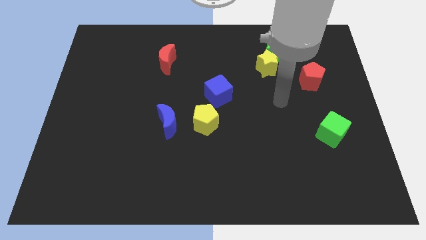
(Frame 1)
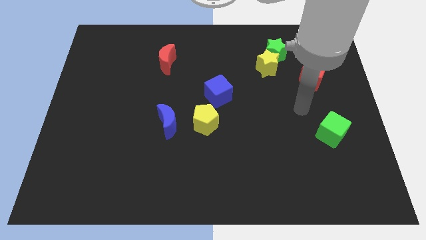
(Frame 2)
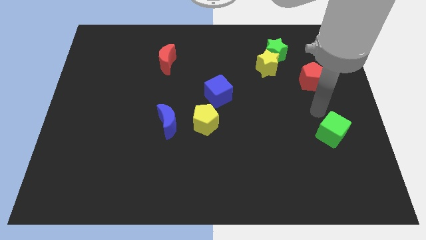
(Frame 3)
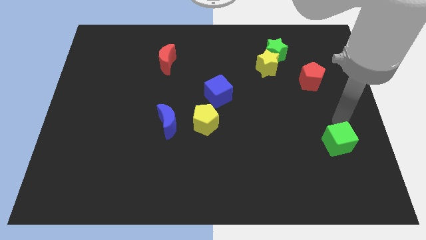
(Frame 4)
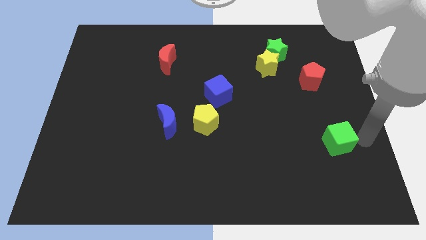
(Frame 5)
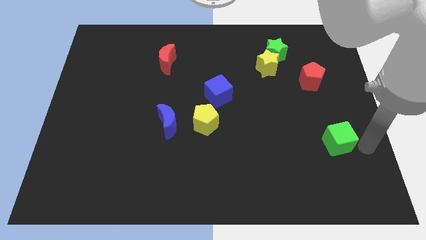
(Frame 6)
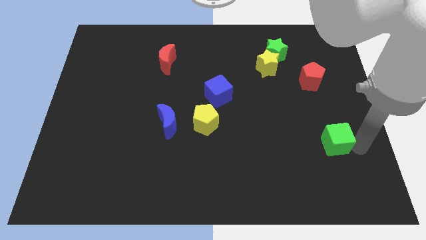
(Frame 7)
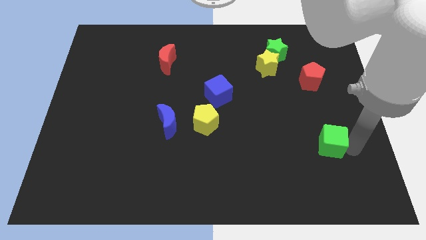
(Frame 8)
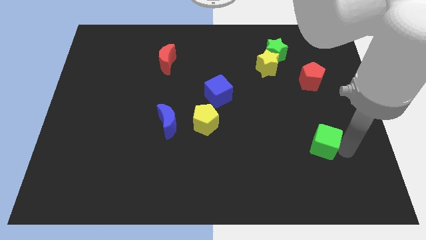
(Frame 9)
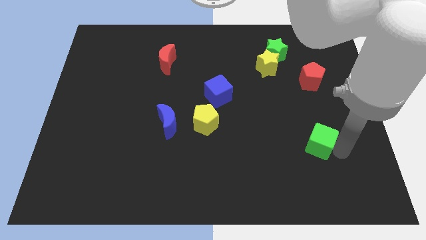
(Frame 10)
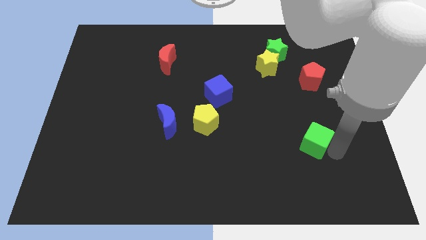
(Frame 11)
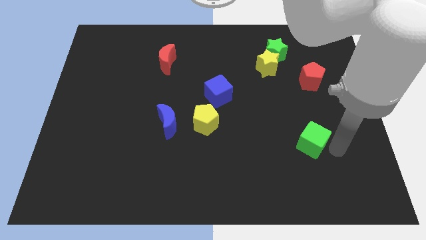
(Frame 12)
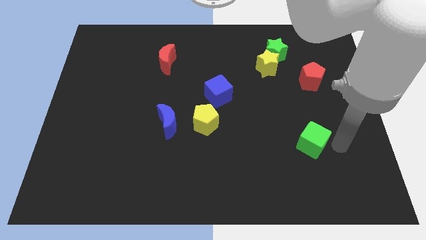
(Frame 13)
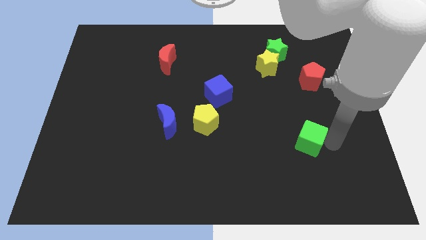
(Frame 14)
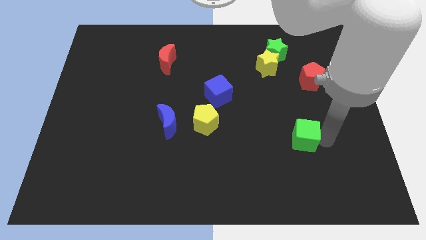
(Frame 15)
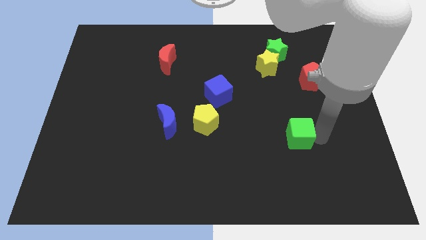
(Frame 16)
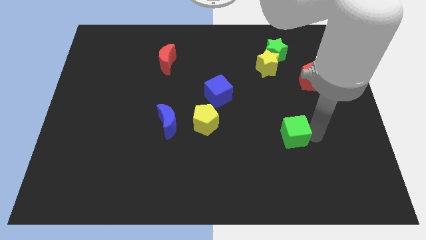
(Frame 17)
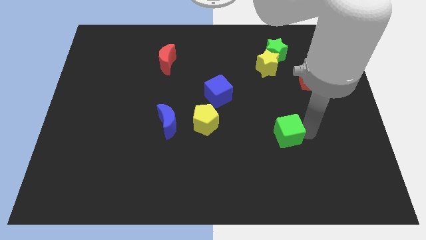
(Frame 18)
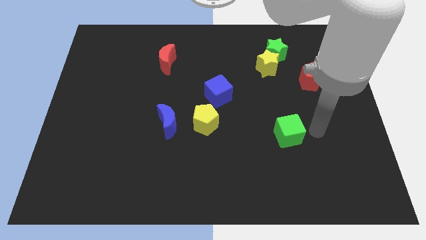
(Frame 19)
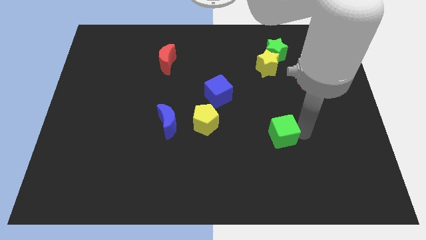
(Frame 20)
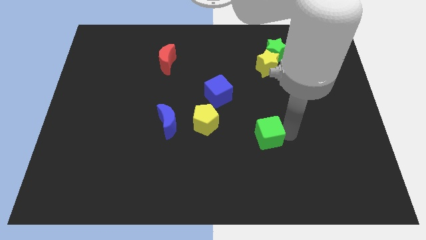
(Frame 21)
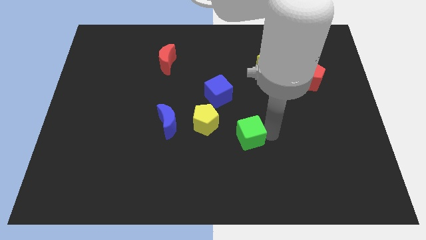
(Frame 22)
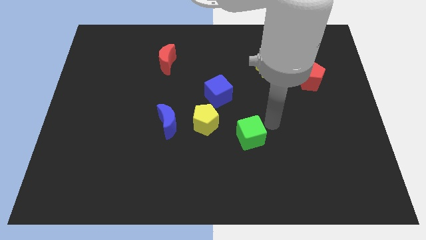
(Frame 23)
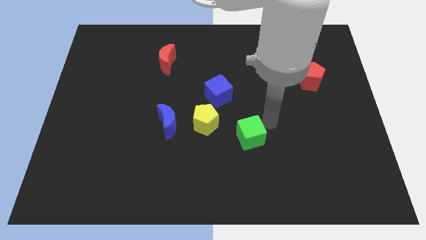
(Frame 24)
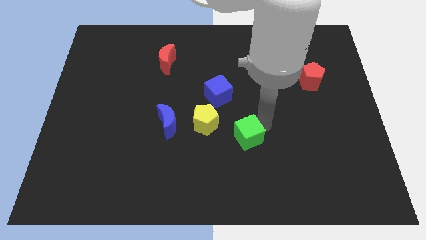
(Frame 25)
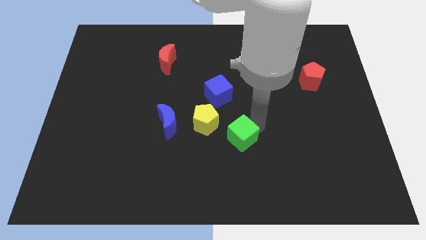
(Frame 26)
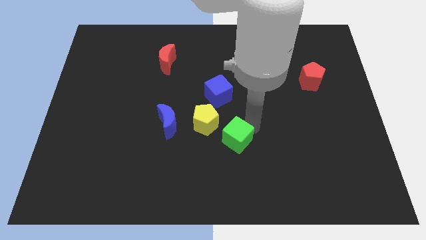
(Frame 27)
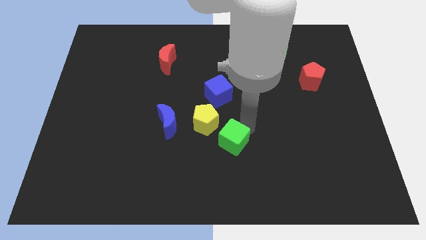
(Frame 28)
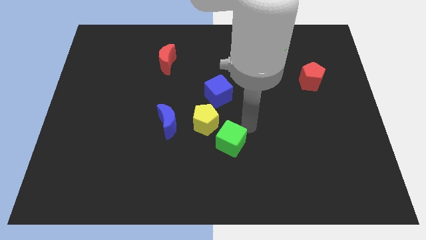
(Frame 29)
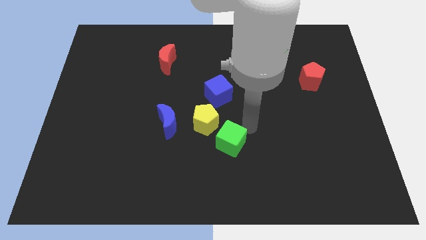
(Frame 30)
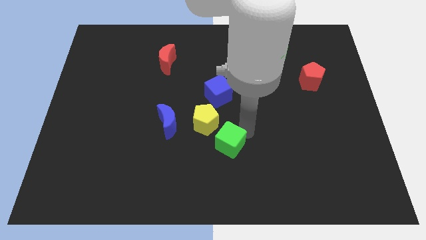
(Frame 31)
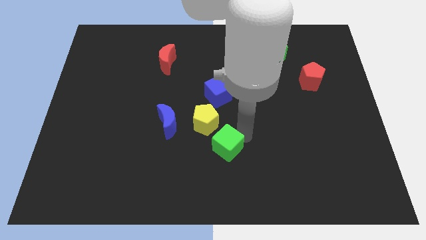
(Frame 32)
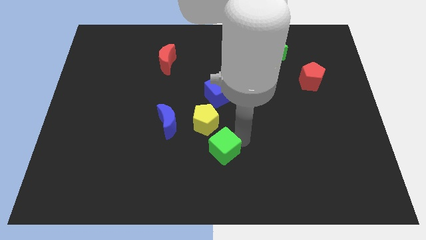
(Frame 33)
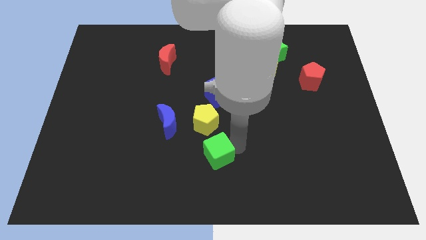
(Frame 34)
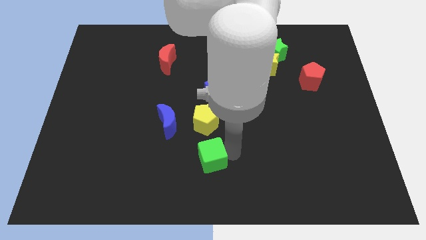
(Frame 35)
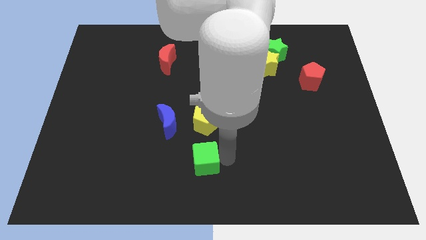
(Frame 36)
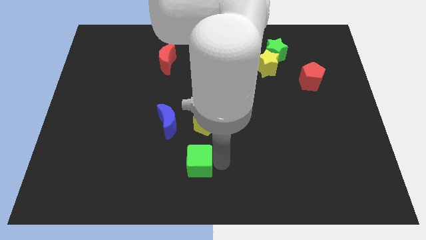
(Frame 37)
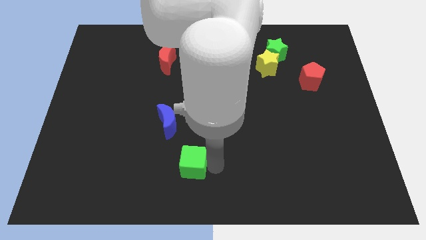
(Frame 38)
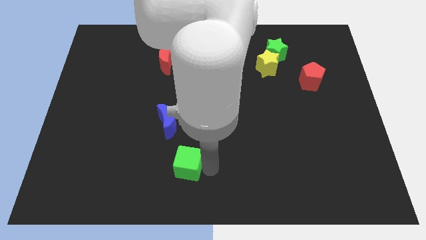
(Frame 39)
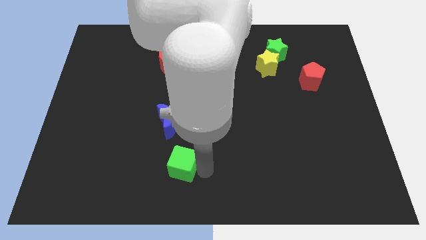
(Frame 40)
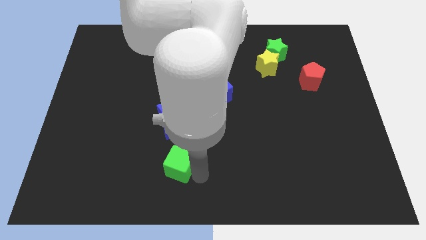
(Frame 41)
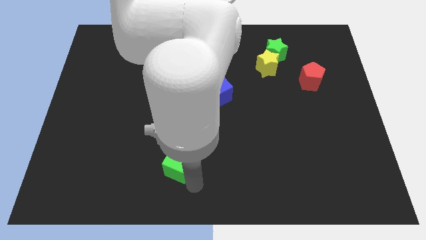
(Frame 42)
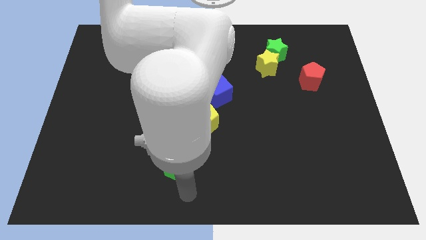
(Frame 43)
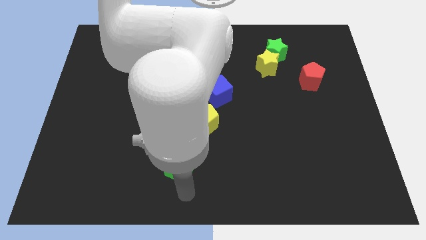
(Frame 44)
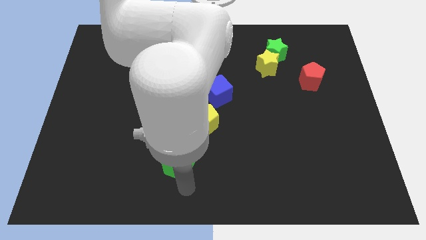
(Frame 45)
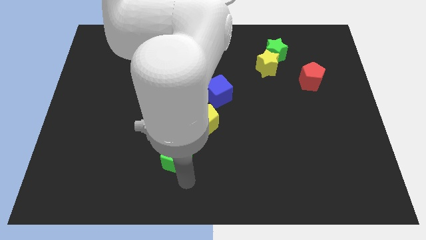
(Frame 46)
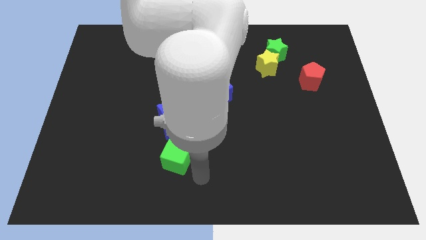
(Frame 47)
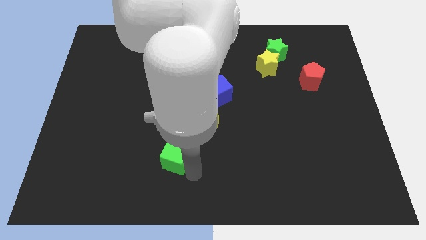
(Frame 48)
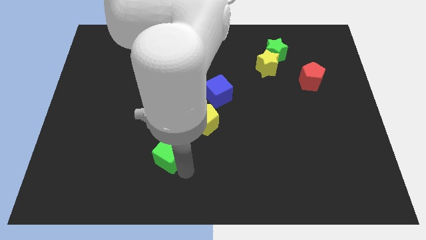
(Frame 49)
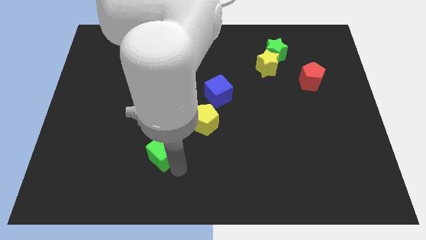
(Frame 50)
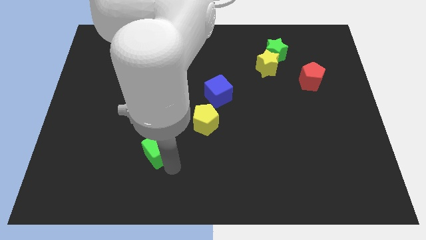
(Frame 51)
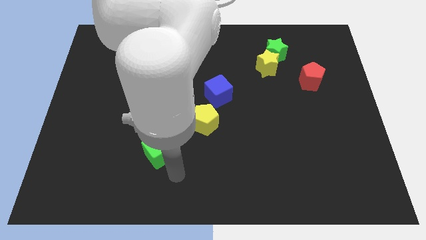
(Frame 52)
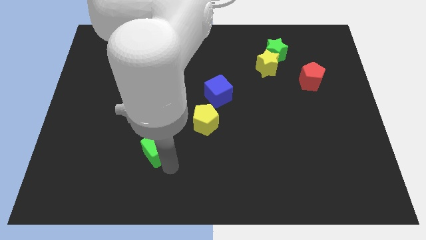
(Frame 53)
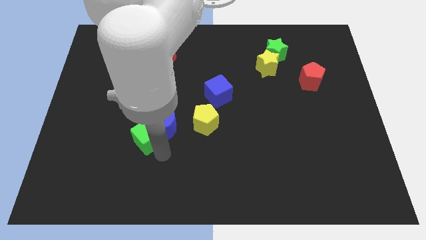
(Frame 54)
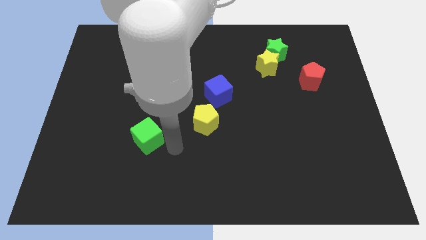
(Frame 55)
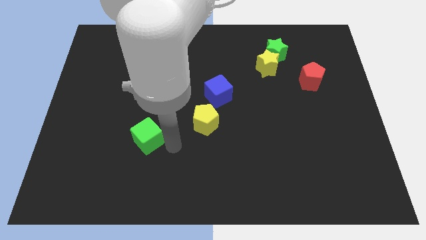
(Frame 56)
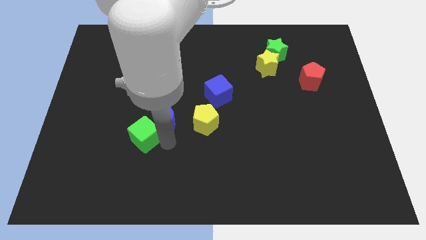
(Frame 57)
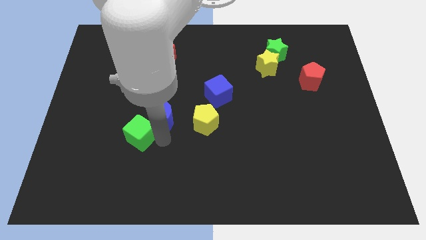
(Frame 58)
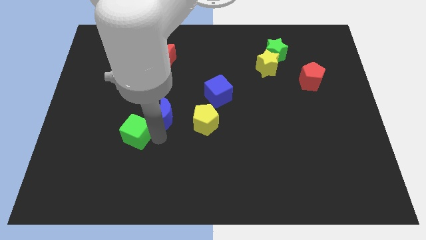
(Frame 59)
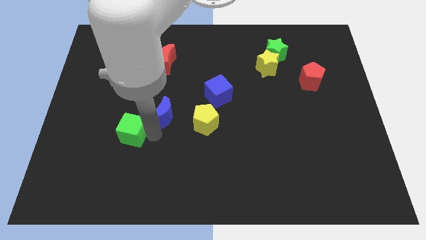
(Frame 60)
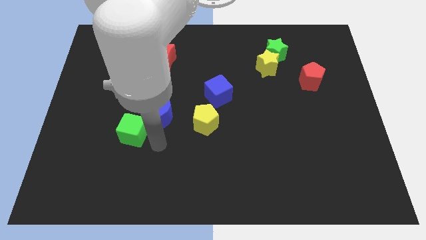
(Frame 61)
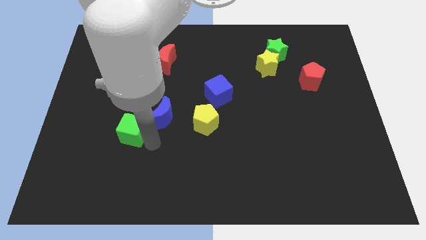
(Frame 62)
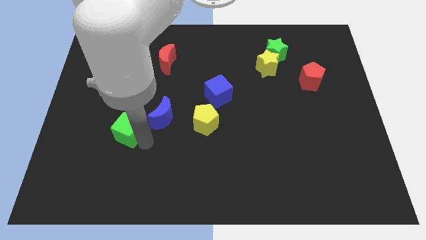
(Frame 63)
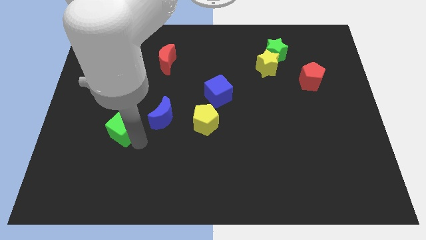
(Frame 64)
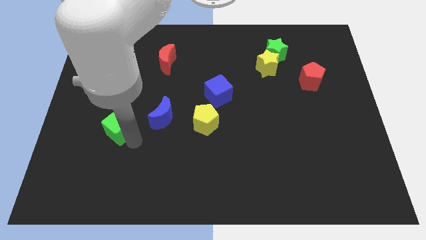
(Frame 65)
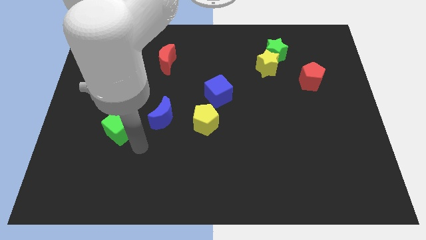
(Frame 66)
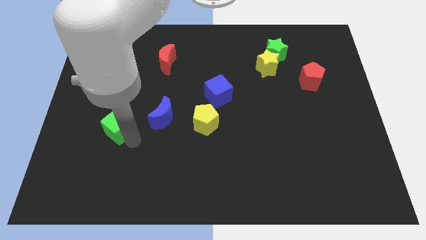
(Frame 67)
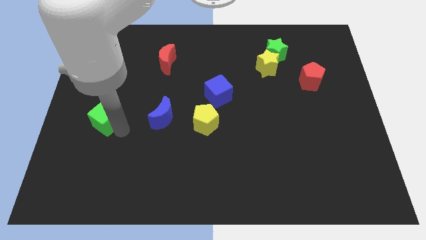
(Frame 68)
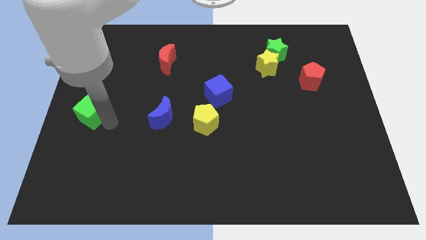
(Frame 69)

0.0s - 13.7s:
move the green cube to the left side
